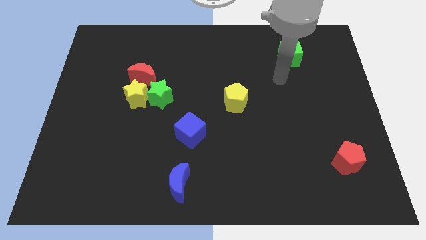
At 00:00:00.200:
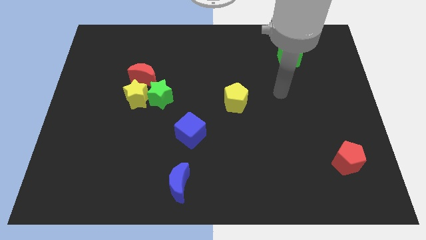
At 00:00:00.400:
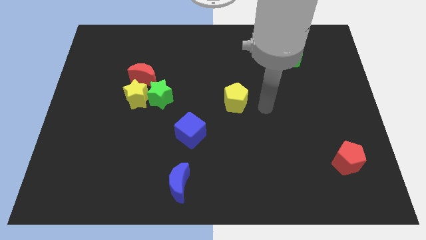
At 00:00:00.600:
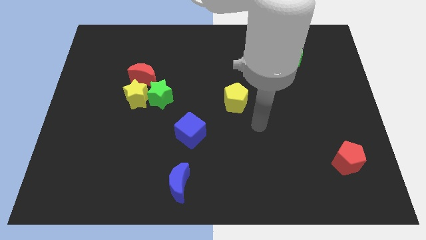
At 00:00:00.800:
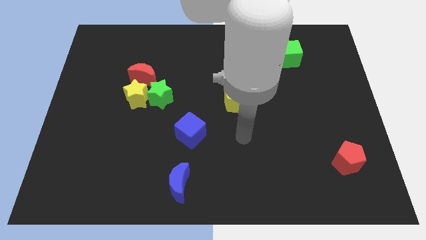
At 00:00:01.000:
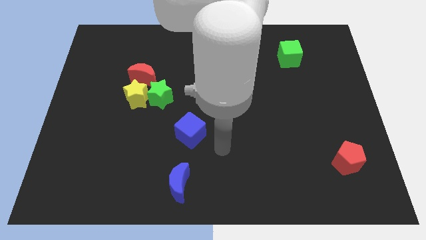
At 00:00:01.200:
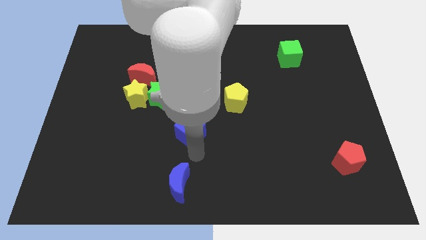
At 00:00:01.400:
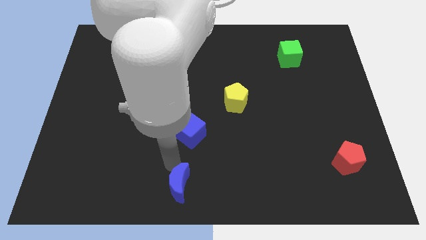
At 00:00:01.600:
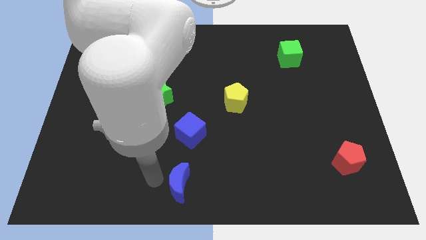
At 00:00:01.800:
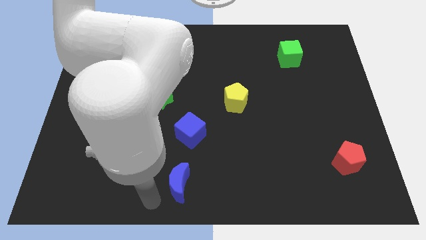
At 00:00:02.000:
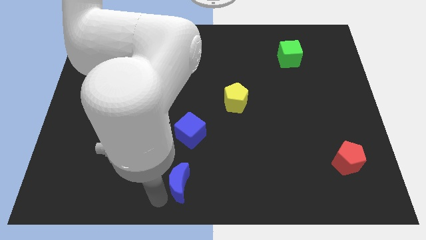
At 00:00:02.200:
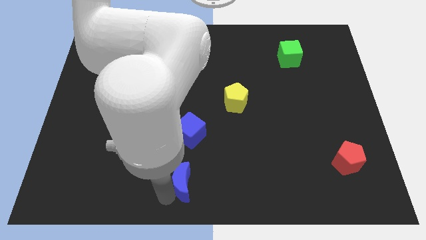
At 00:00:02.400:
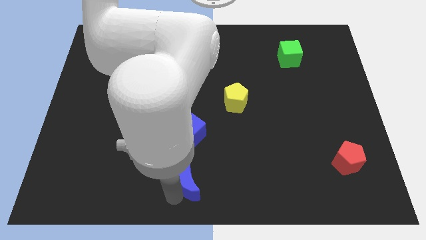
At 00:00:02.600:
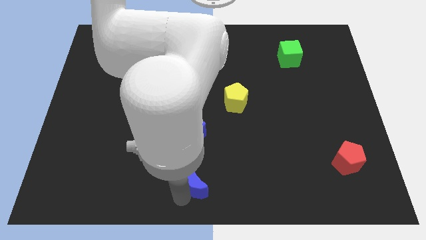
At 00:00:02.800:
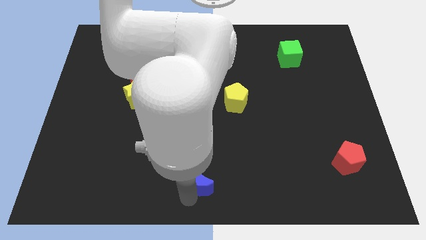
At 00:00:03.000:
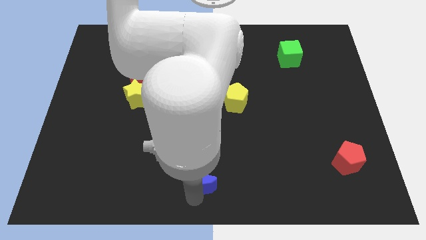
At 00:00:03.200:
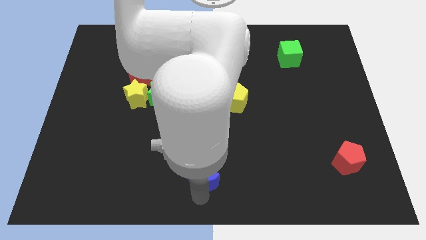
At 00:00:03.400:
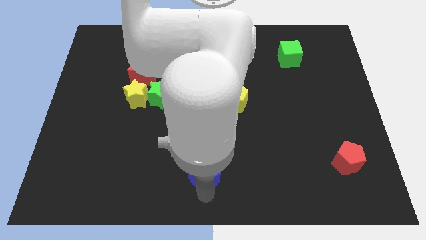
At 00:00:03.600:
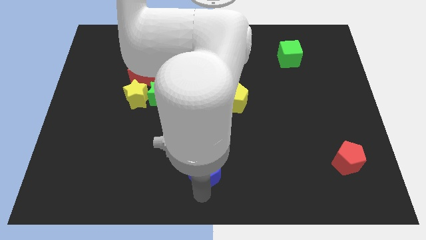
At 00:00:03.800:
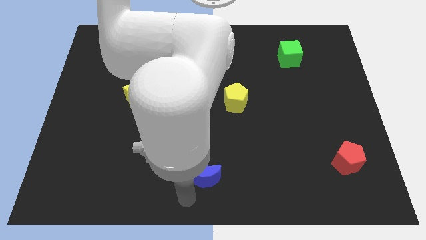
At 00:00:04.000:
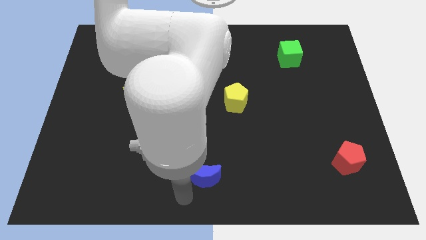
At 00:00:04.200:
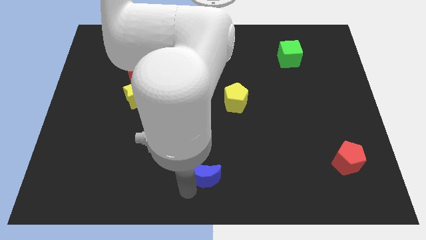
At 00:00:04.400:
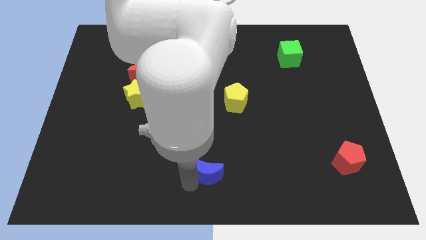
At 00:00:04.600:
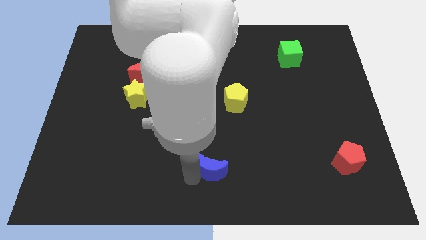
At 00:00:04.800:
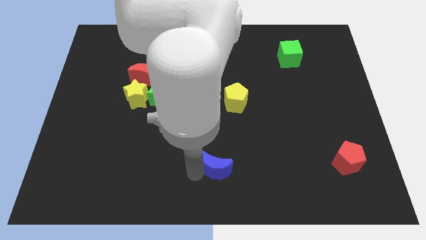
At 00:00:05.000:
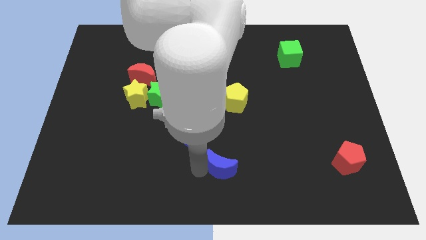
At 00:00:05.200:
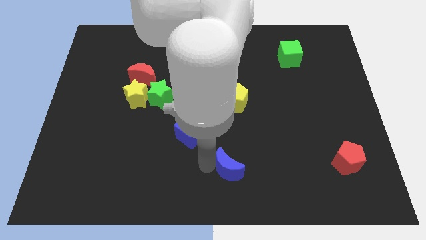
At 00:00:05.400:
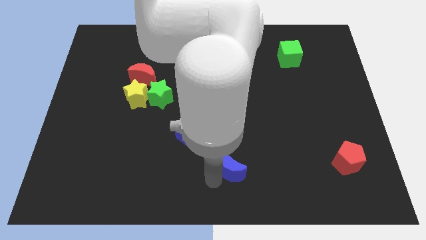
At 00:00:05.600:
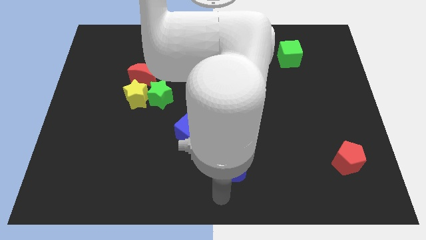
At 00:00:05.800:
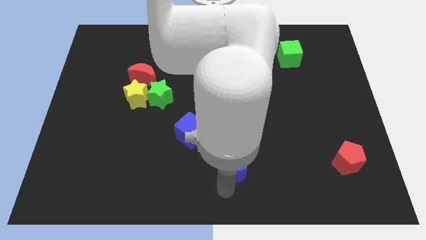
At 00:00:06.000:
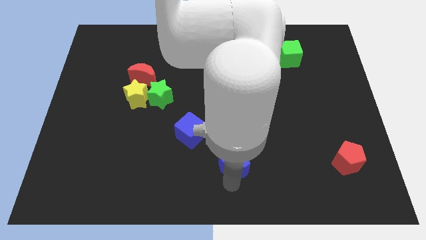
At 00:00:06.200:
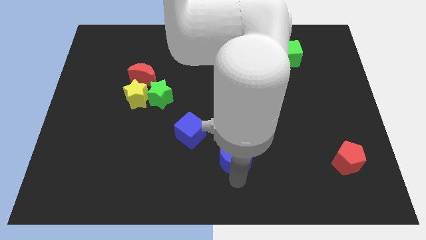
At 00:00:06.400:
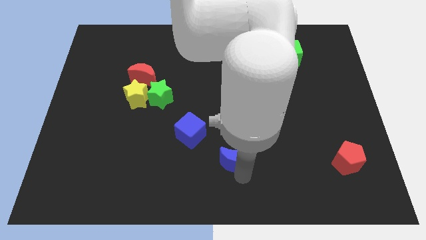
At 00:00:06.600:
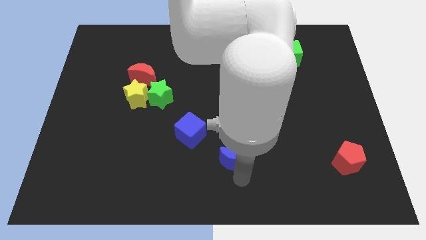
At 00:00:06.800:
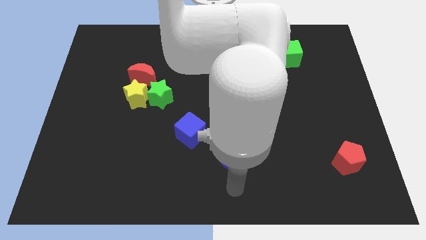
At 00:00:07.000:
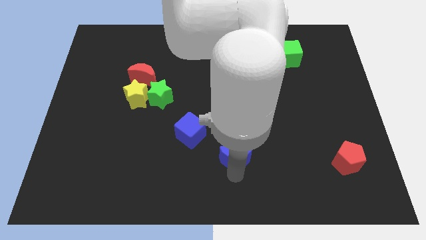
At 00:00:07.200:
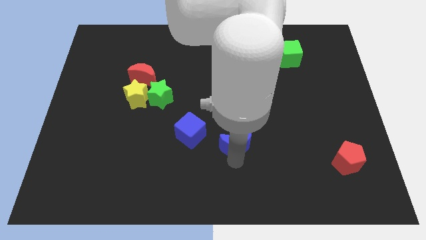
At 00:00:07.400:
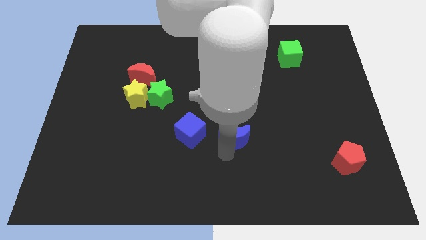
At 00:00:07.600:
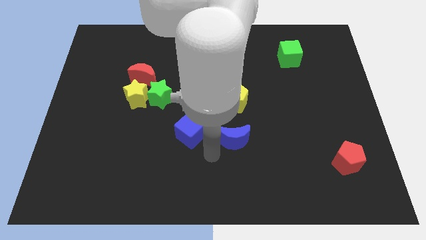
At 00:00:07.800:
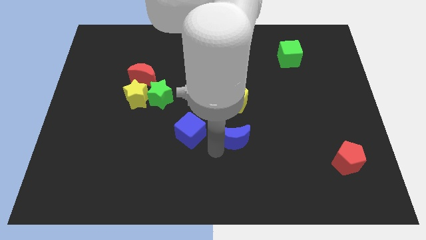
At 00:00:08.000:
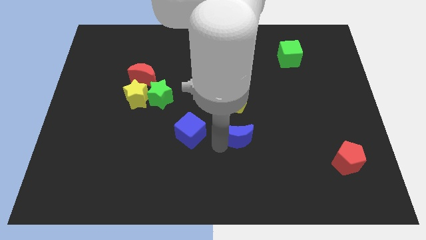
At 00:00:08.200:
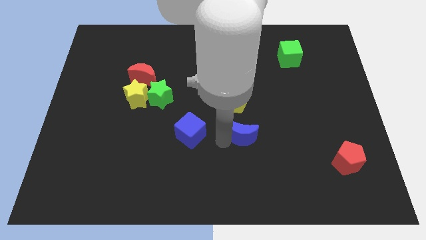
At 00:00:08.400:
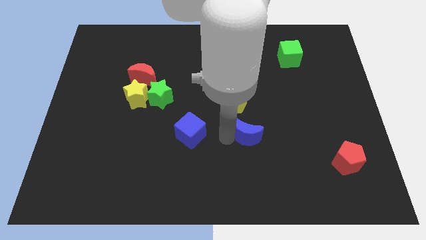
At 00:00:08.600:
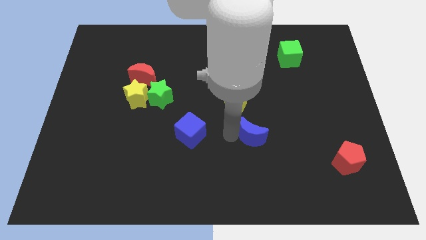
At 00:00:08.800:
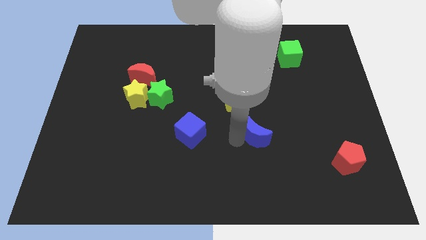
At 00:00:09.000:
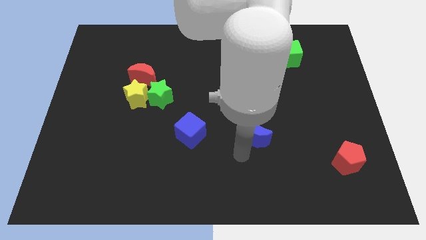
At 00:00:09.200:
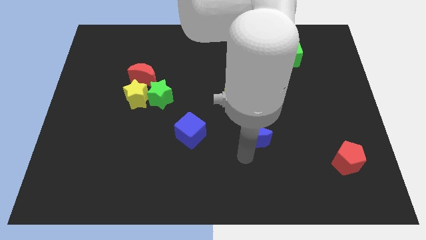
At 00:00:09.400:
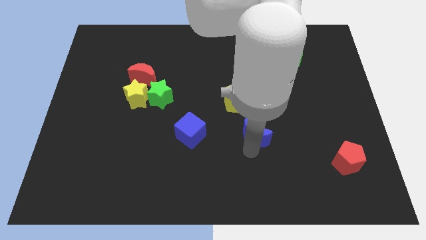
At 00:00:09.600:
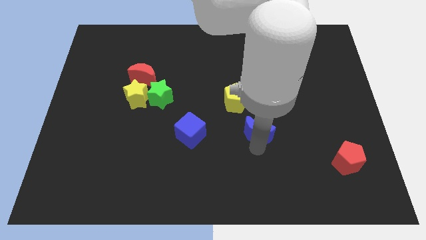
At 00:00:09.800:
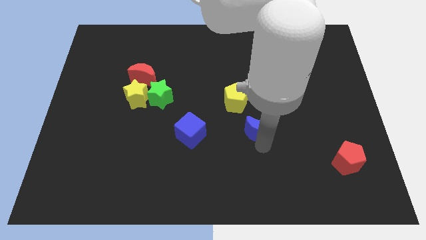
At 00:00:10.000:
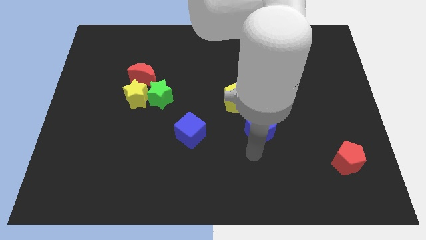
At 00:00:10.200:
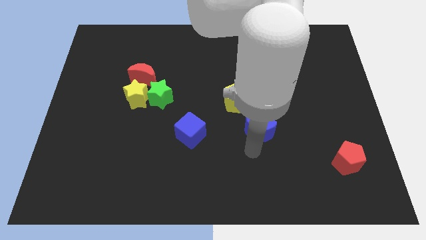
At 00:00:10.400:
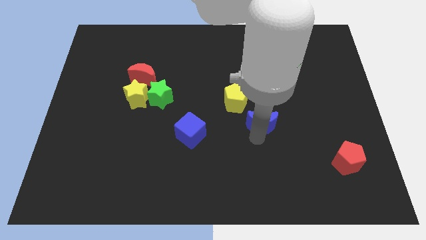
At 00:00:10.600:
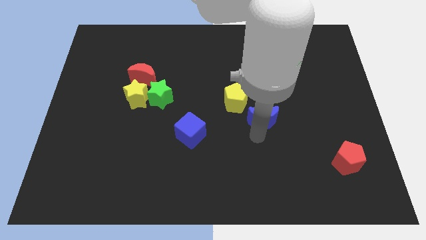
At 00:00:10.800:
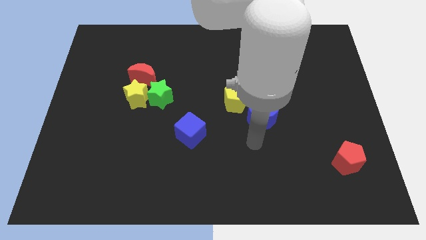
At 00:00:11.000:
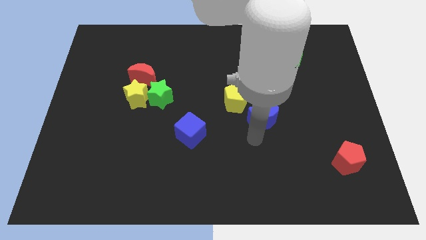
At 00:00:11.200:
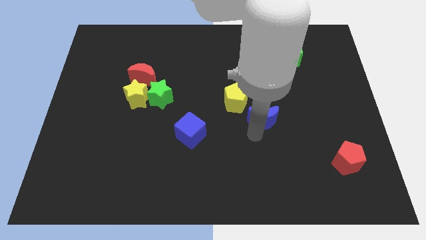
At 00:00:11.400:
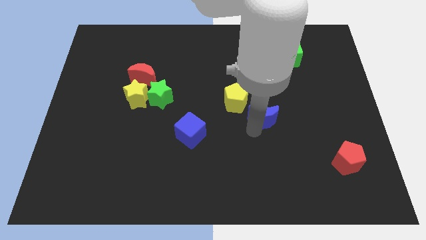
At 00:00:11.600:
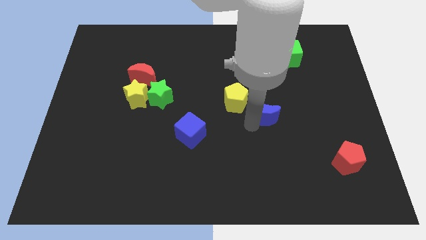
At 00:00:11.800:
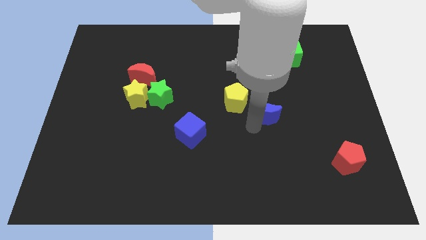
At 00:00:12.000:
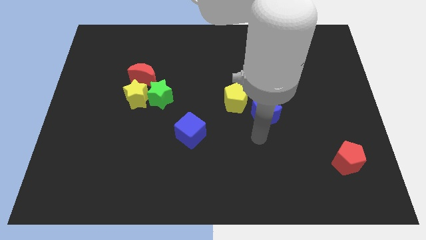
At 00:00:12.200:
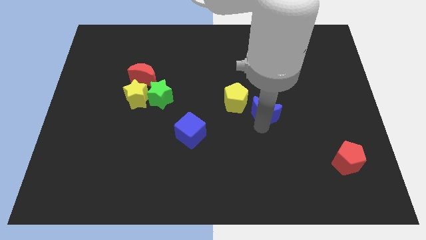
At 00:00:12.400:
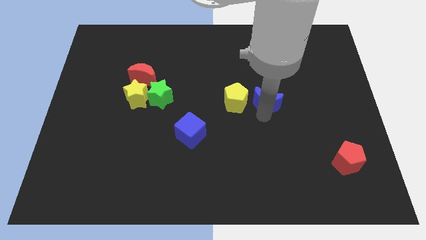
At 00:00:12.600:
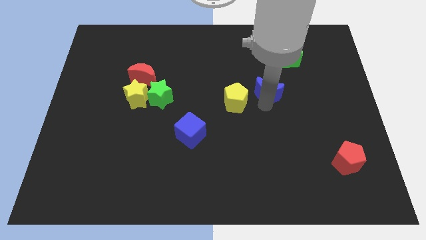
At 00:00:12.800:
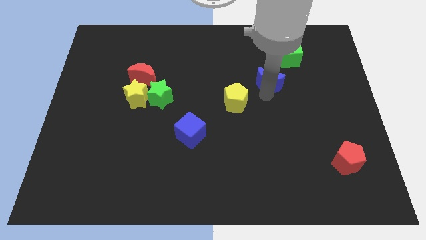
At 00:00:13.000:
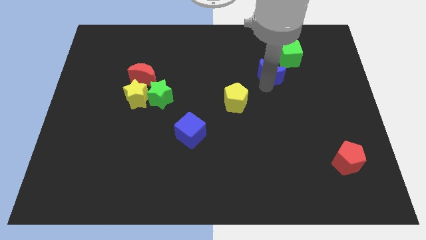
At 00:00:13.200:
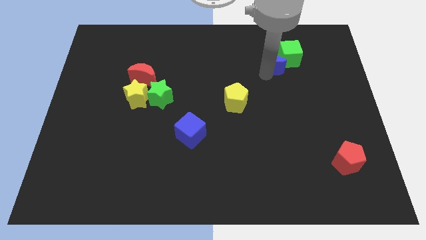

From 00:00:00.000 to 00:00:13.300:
slide the blue moon close to the green cube

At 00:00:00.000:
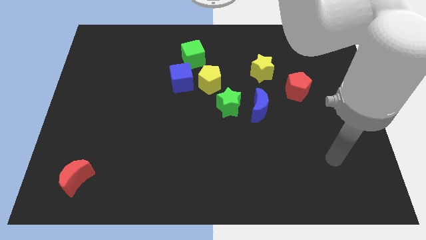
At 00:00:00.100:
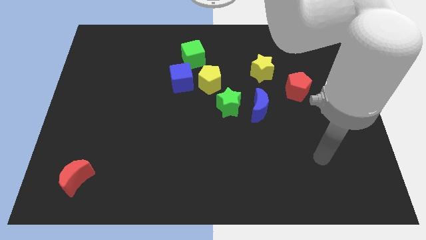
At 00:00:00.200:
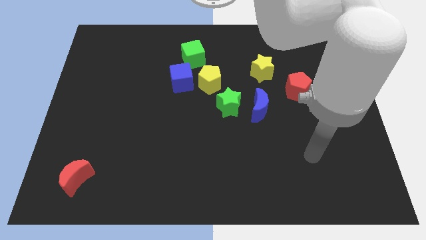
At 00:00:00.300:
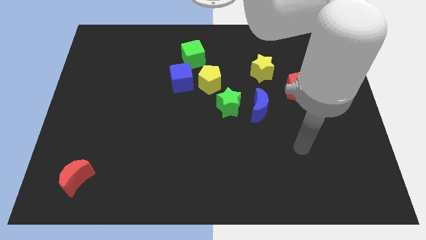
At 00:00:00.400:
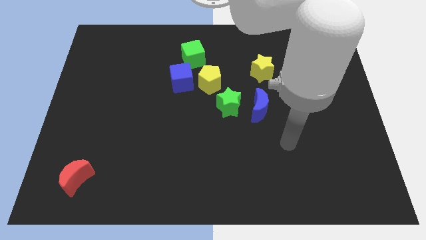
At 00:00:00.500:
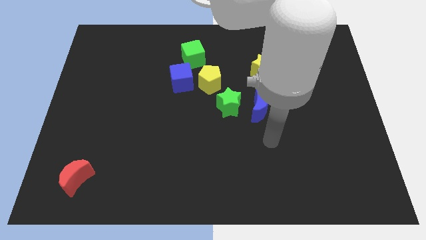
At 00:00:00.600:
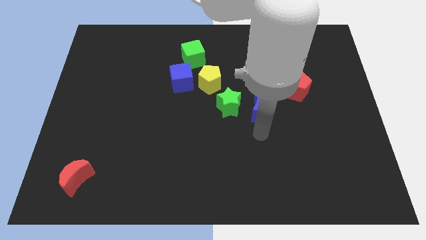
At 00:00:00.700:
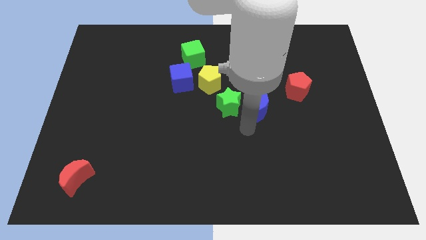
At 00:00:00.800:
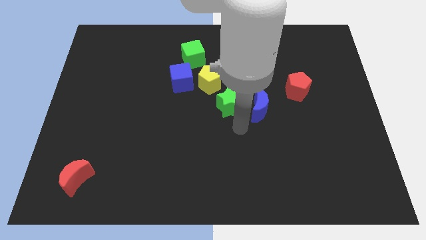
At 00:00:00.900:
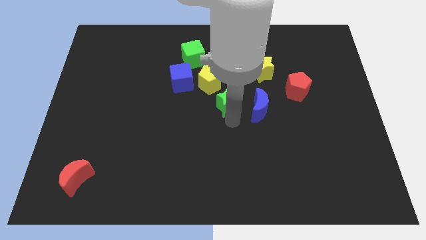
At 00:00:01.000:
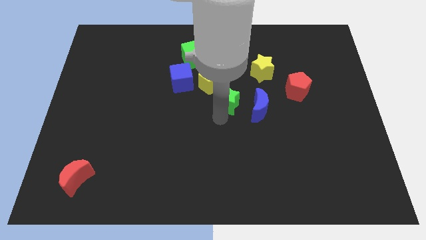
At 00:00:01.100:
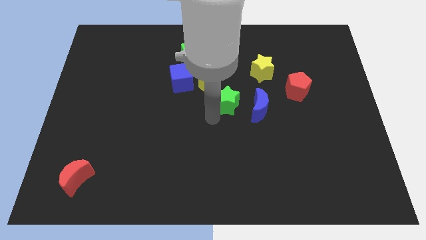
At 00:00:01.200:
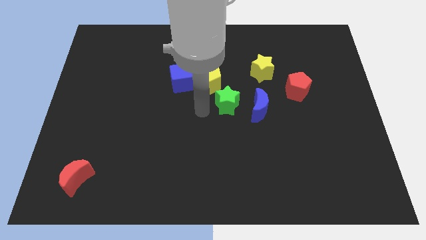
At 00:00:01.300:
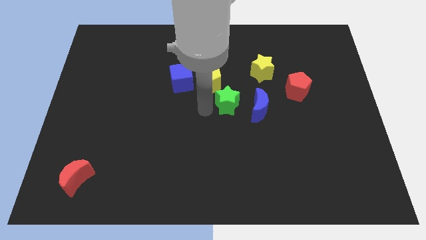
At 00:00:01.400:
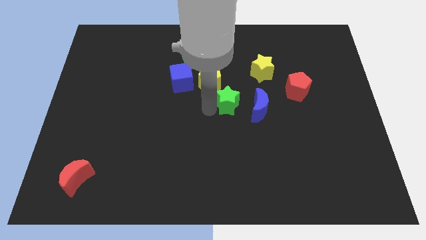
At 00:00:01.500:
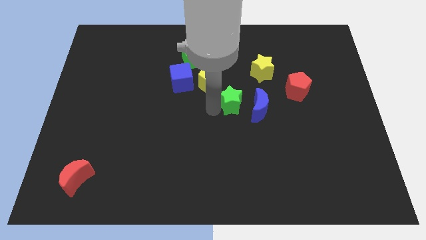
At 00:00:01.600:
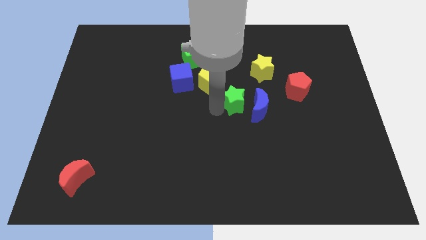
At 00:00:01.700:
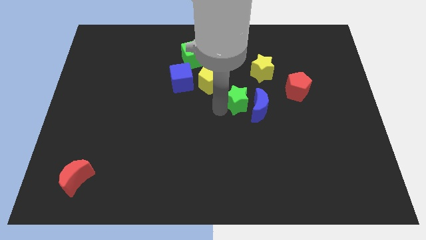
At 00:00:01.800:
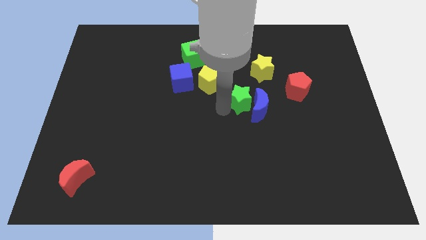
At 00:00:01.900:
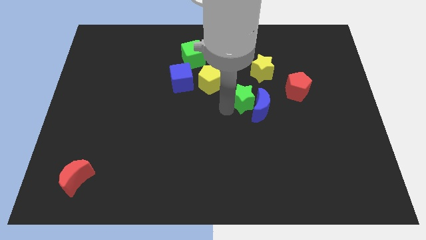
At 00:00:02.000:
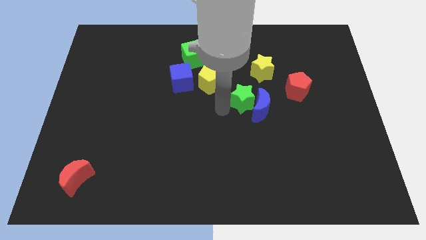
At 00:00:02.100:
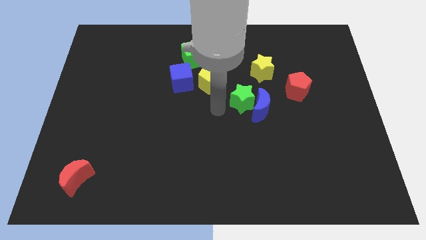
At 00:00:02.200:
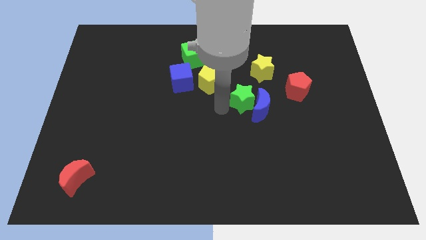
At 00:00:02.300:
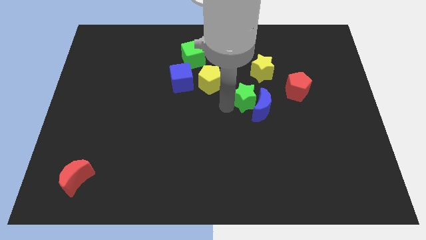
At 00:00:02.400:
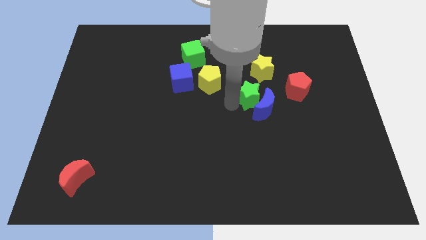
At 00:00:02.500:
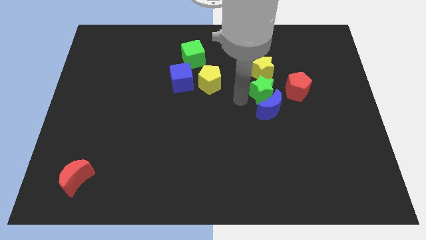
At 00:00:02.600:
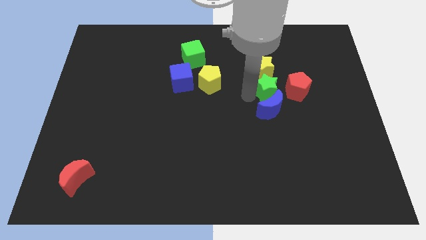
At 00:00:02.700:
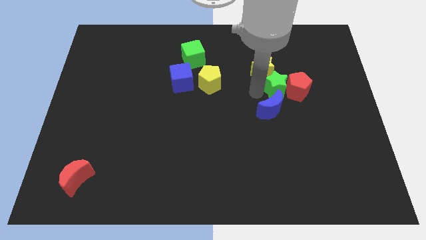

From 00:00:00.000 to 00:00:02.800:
move the green star close to the red pentagon
